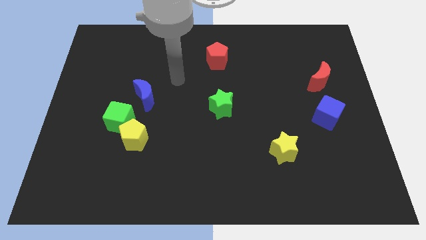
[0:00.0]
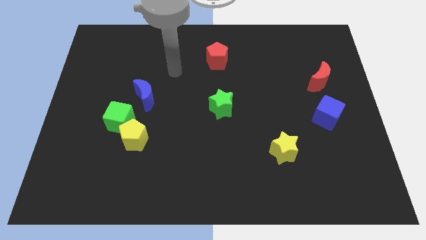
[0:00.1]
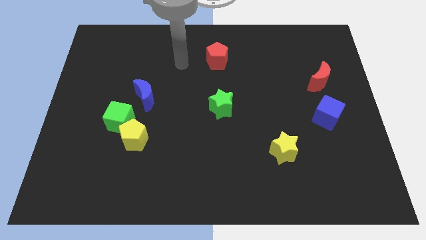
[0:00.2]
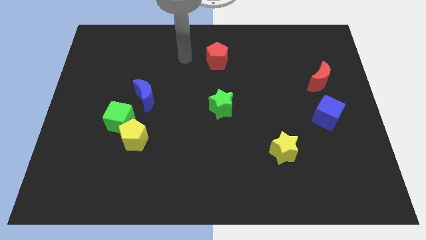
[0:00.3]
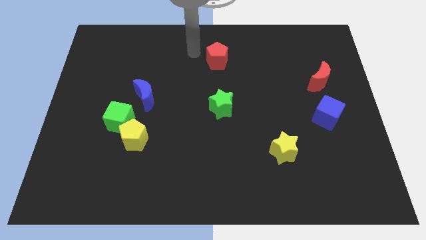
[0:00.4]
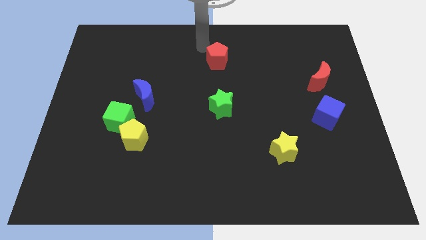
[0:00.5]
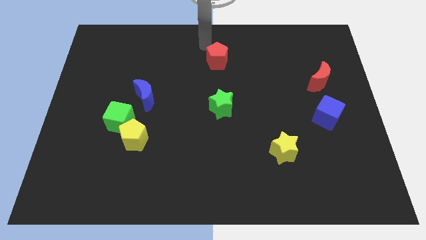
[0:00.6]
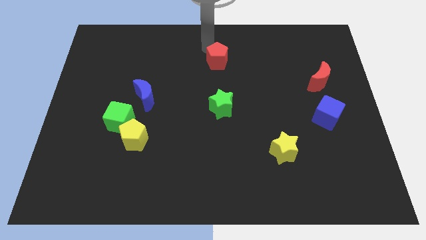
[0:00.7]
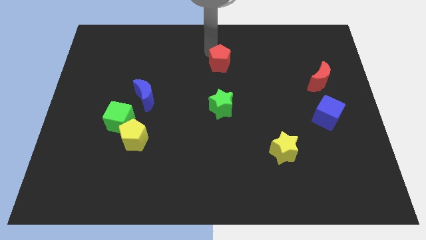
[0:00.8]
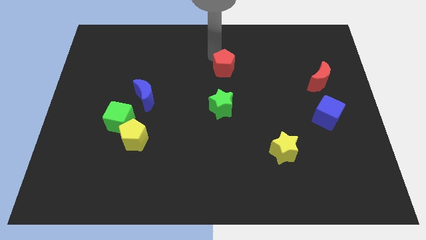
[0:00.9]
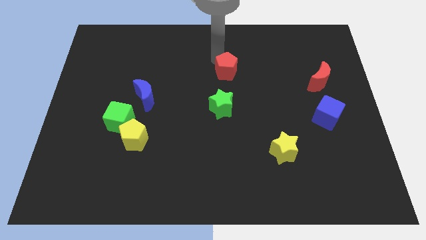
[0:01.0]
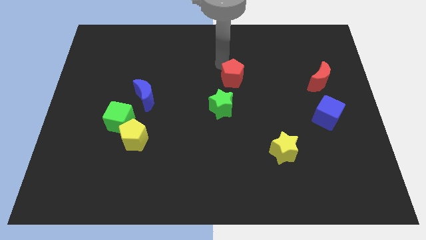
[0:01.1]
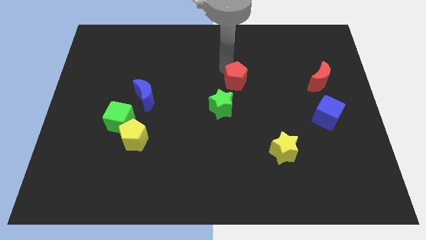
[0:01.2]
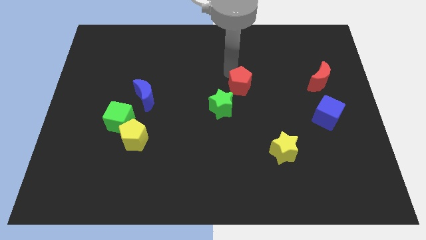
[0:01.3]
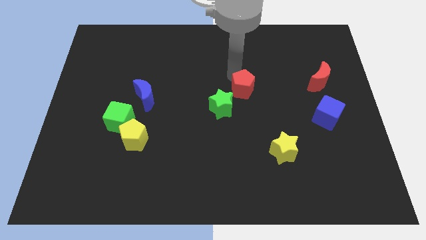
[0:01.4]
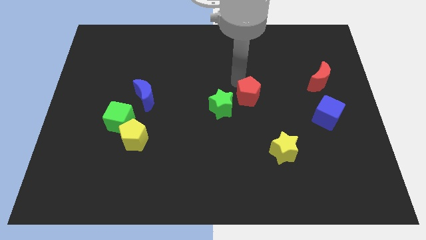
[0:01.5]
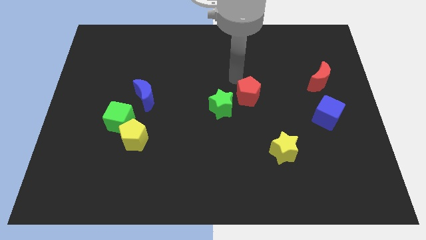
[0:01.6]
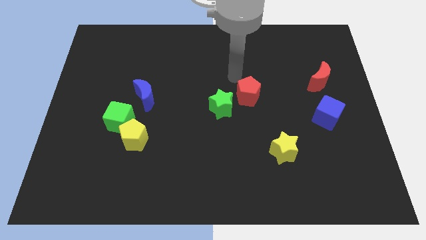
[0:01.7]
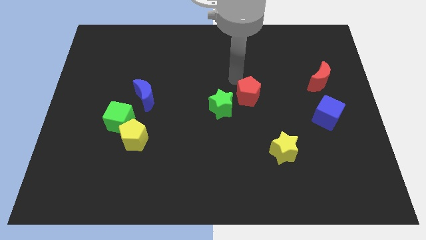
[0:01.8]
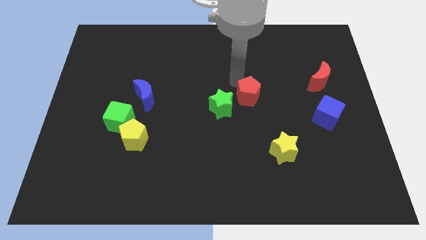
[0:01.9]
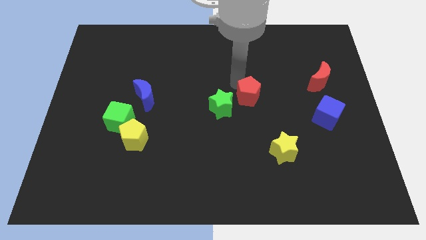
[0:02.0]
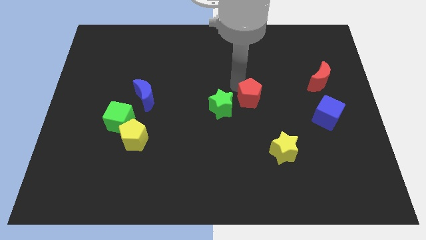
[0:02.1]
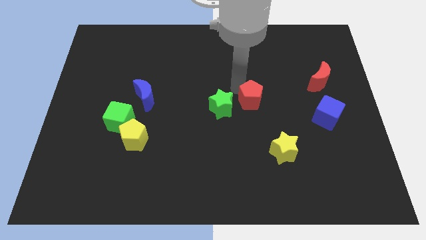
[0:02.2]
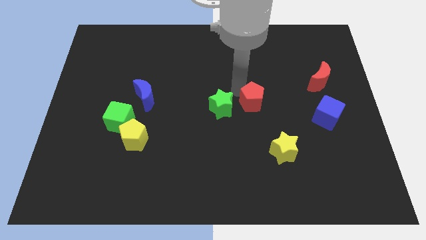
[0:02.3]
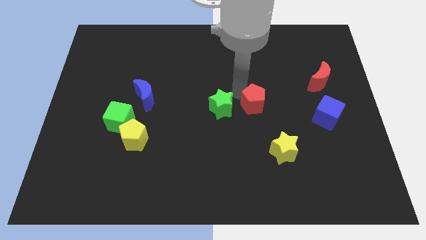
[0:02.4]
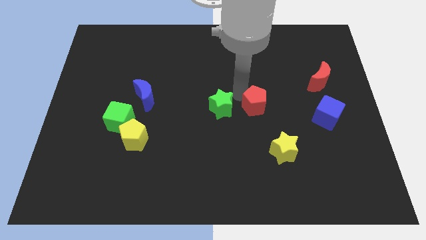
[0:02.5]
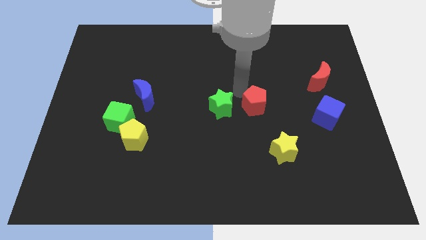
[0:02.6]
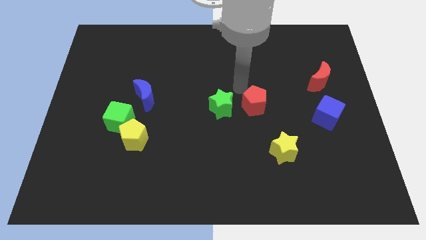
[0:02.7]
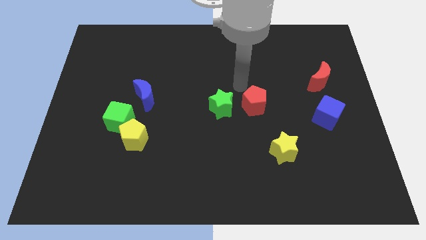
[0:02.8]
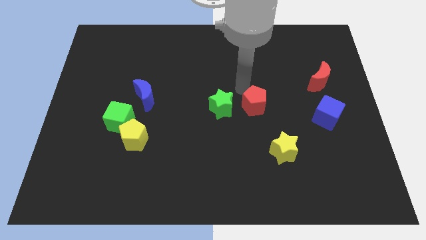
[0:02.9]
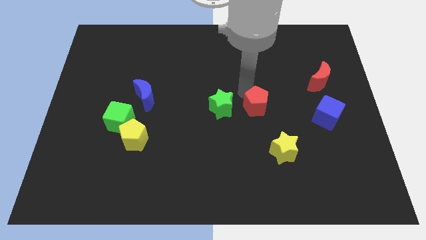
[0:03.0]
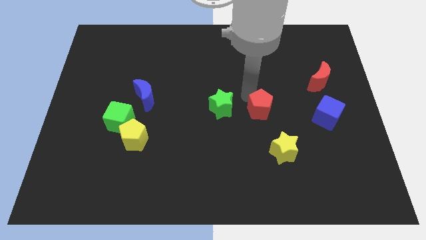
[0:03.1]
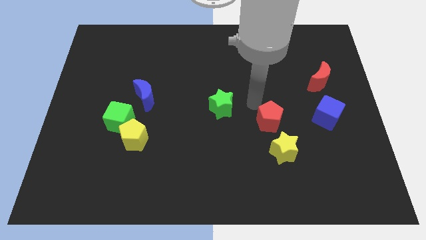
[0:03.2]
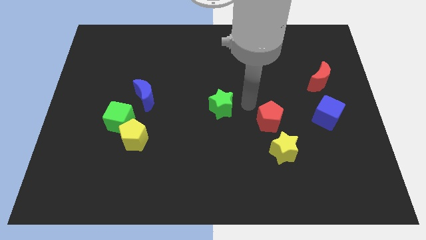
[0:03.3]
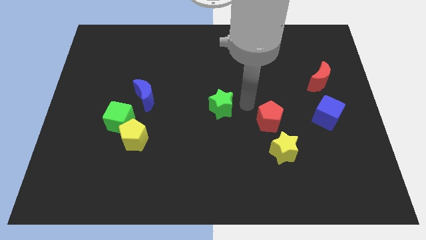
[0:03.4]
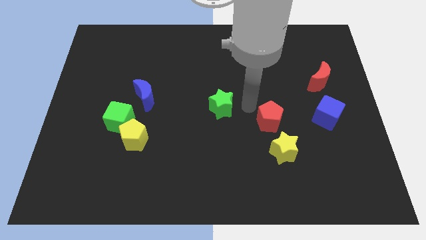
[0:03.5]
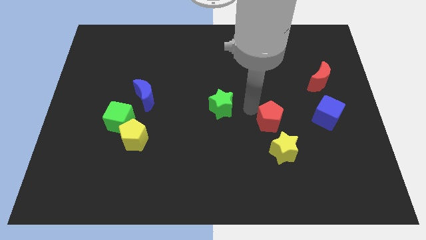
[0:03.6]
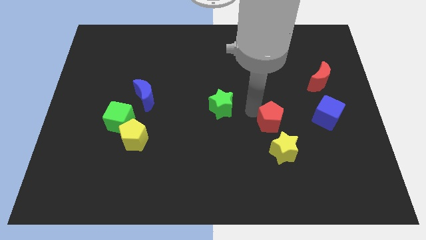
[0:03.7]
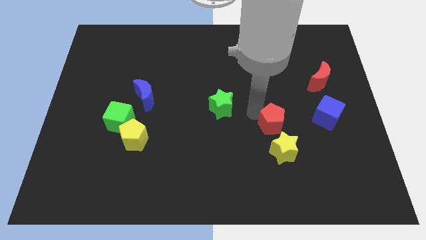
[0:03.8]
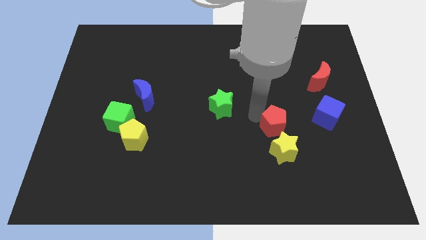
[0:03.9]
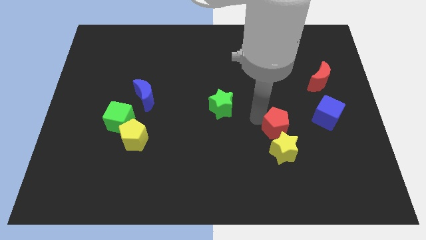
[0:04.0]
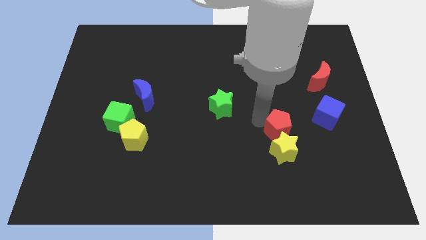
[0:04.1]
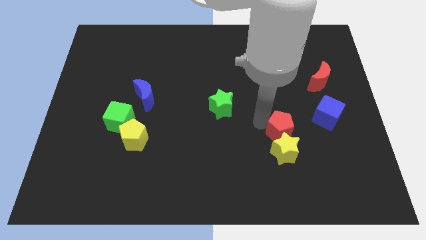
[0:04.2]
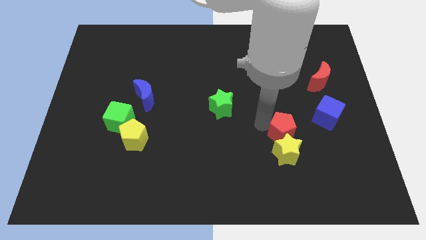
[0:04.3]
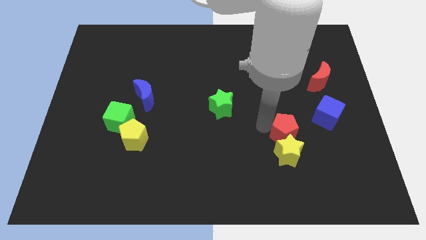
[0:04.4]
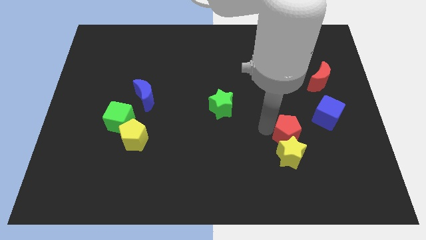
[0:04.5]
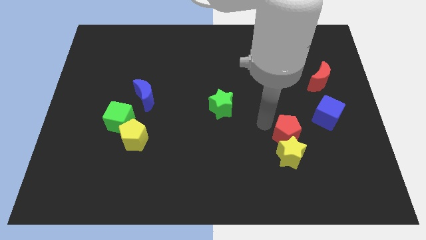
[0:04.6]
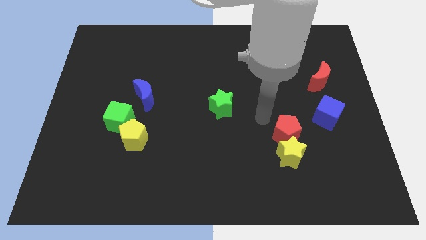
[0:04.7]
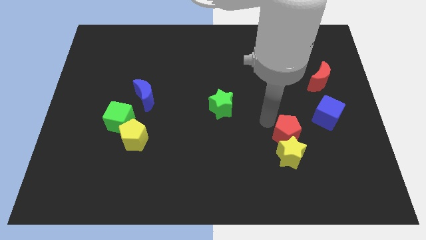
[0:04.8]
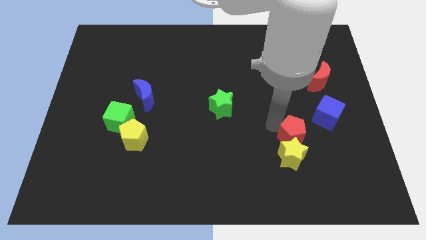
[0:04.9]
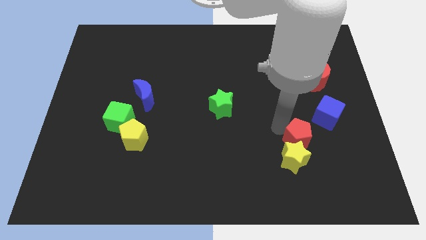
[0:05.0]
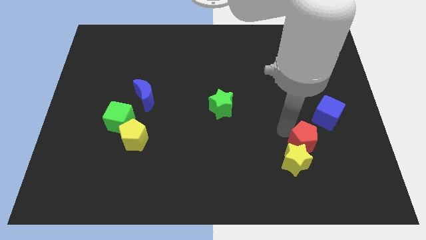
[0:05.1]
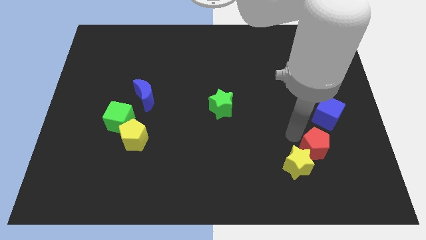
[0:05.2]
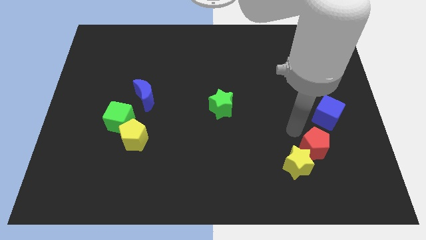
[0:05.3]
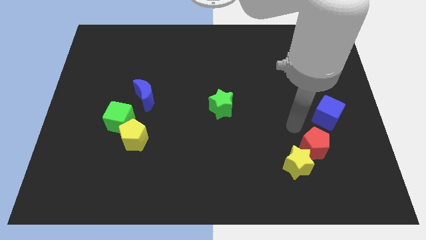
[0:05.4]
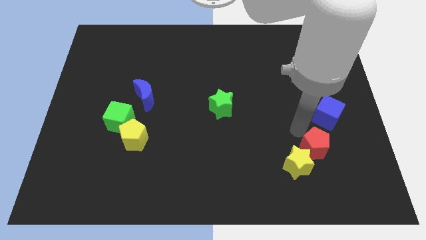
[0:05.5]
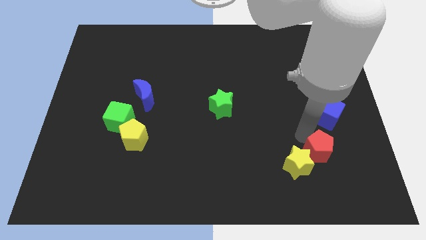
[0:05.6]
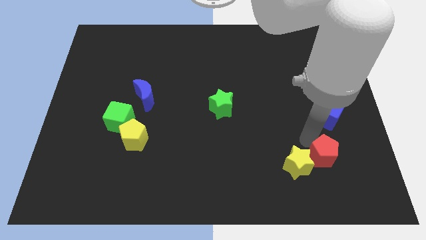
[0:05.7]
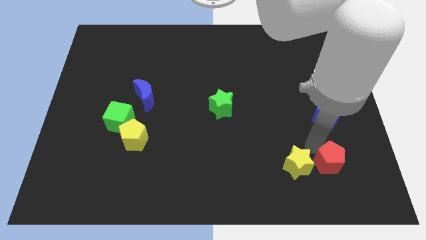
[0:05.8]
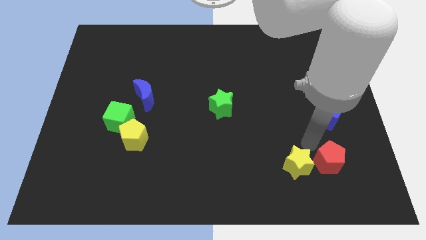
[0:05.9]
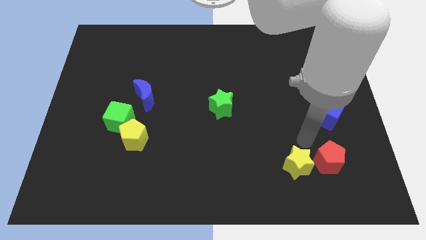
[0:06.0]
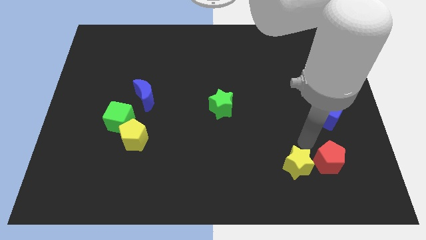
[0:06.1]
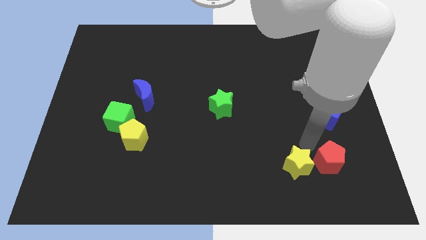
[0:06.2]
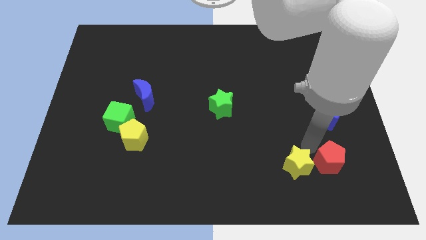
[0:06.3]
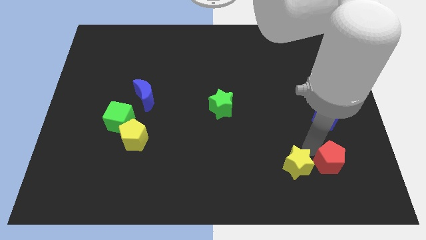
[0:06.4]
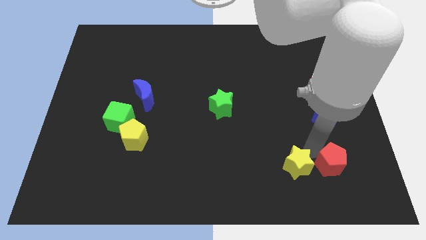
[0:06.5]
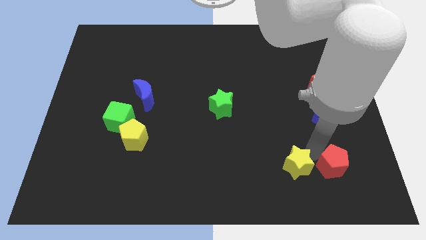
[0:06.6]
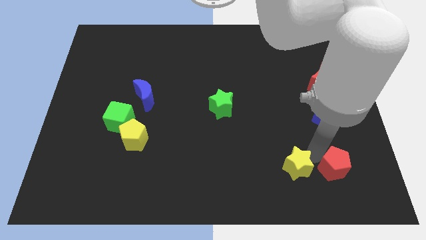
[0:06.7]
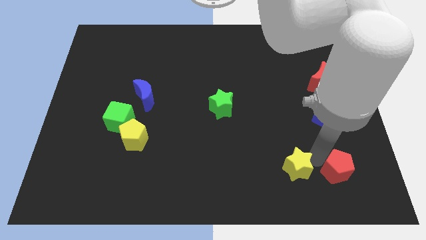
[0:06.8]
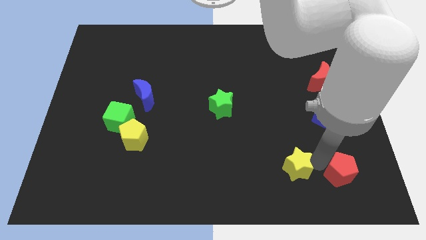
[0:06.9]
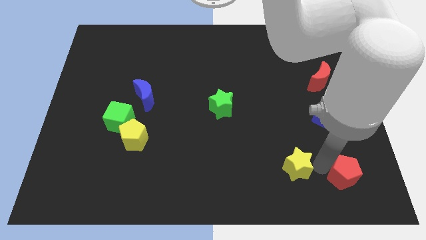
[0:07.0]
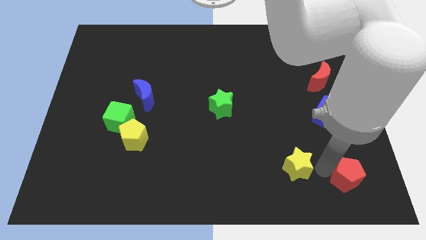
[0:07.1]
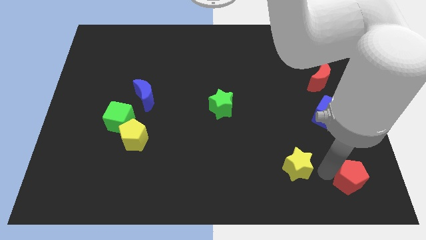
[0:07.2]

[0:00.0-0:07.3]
move the red pentagon to the bottom right
